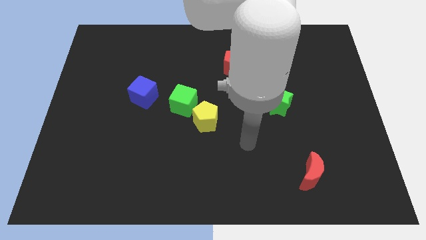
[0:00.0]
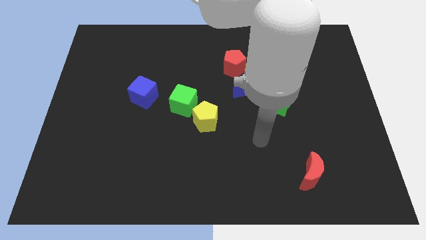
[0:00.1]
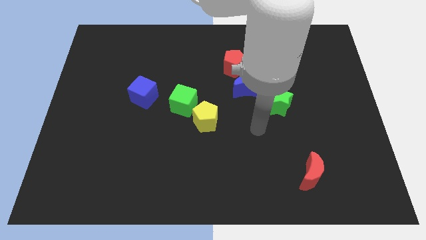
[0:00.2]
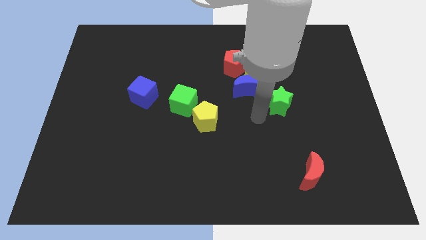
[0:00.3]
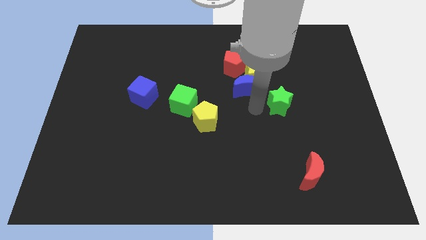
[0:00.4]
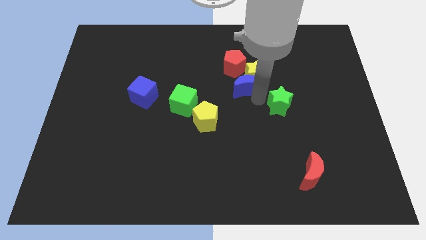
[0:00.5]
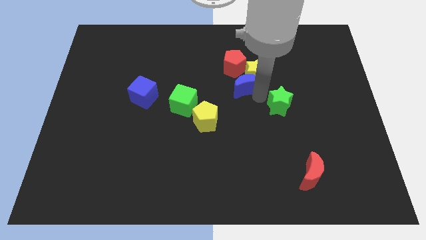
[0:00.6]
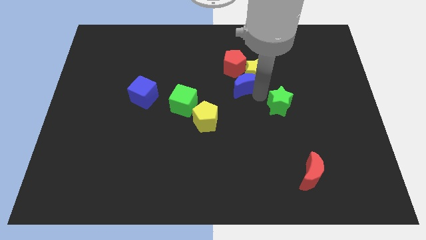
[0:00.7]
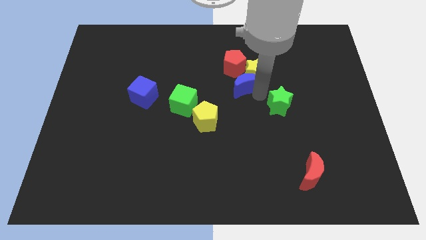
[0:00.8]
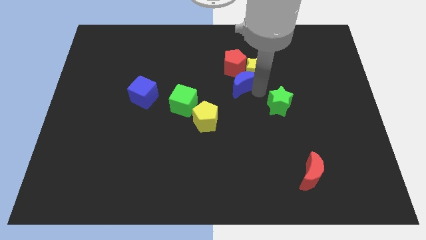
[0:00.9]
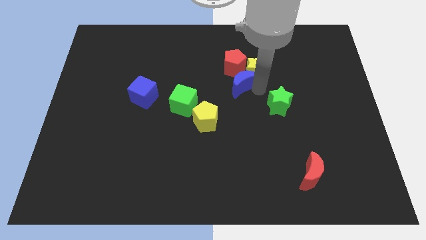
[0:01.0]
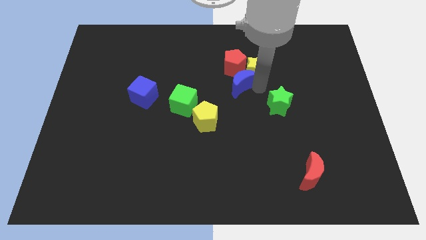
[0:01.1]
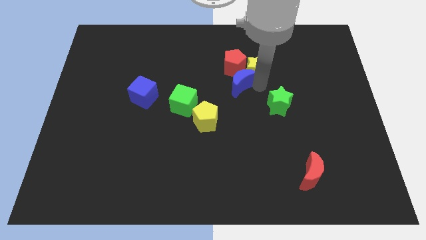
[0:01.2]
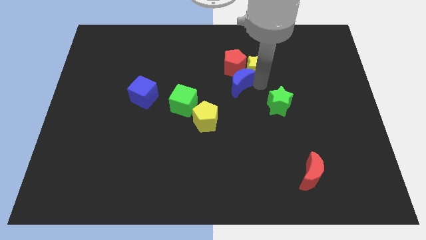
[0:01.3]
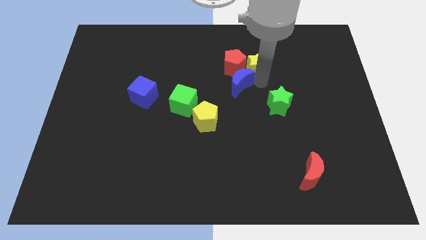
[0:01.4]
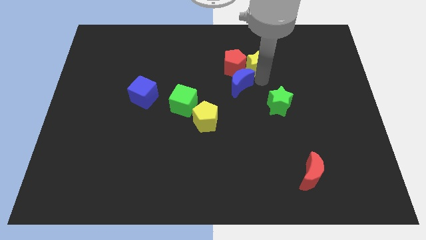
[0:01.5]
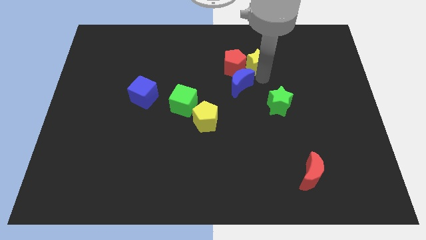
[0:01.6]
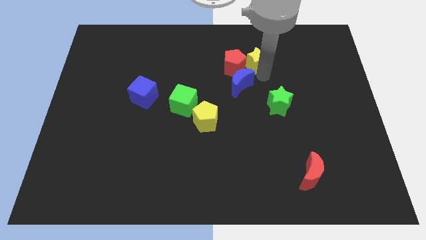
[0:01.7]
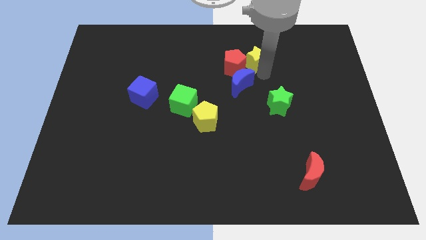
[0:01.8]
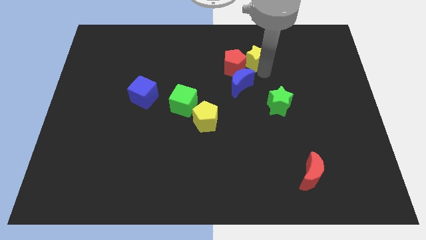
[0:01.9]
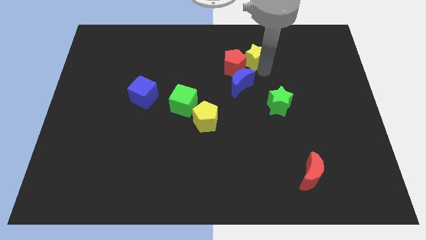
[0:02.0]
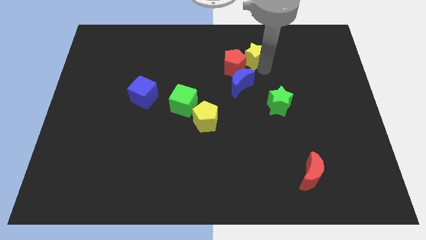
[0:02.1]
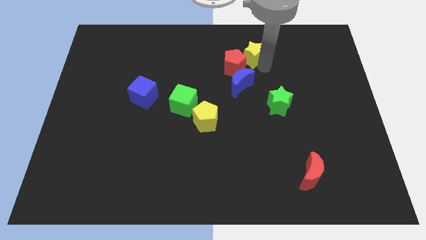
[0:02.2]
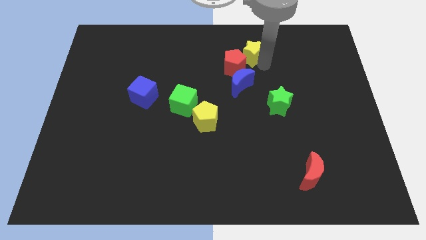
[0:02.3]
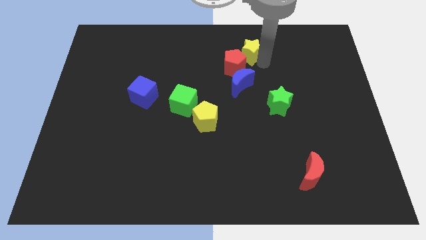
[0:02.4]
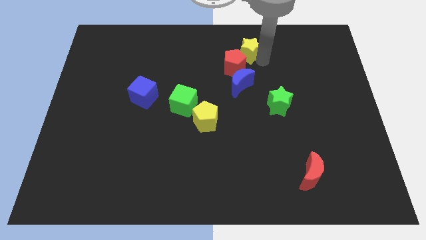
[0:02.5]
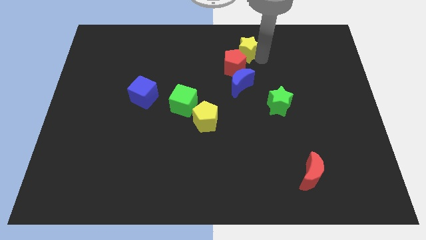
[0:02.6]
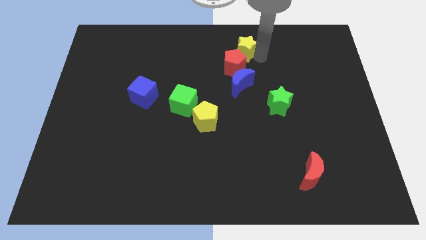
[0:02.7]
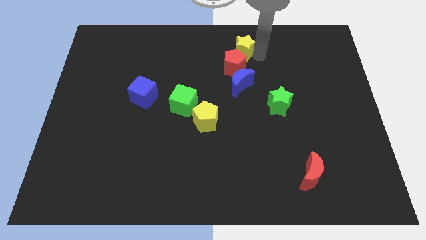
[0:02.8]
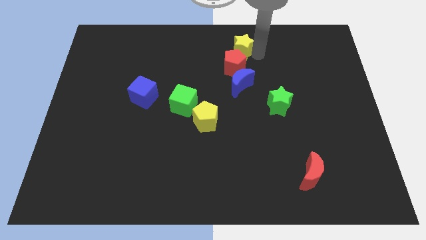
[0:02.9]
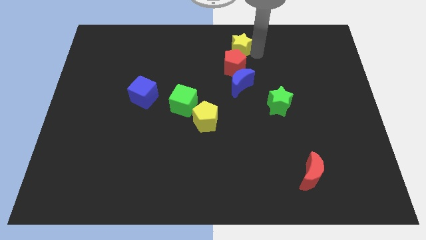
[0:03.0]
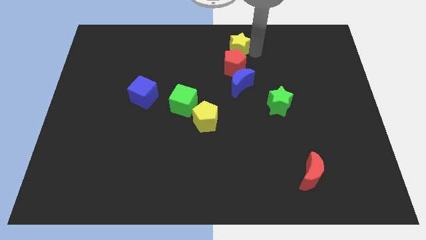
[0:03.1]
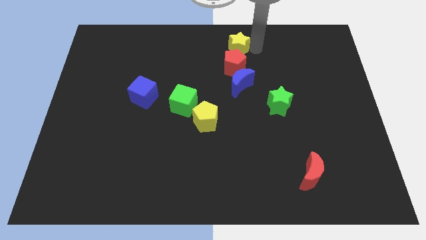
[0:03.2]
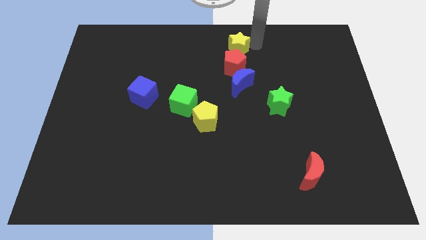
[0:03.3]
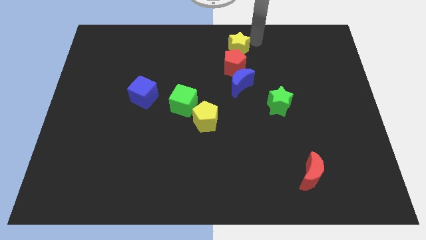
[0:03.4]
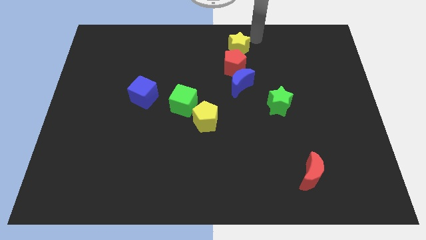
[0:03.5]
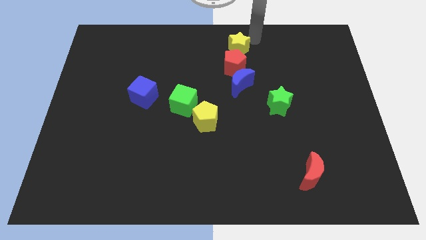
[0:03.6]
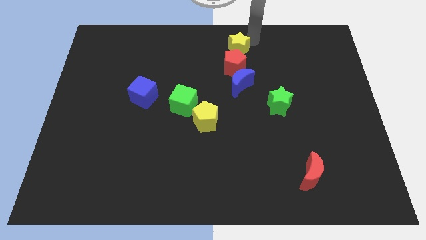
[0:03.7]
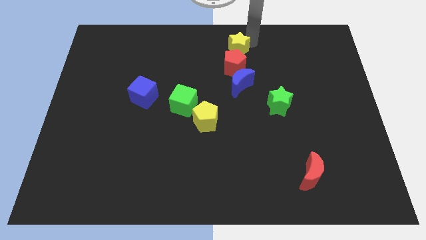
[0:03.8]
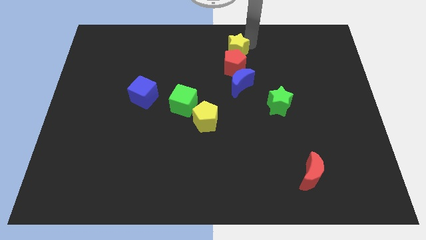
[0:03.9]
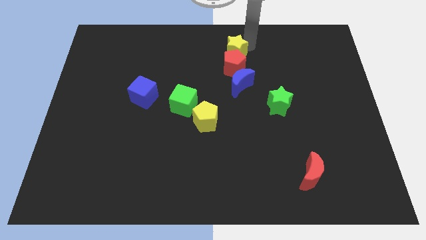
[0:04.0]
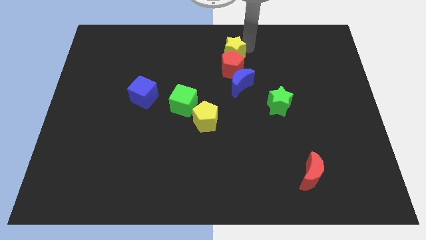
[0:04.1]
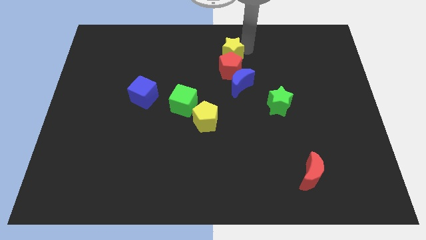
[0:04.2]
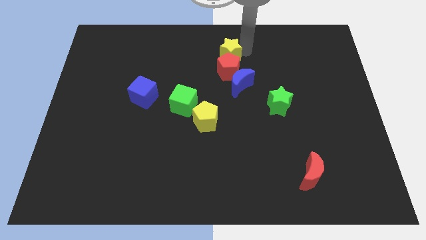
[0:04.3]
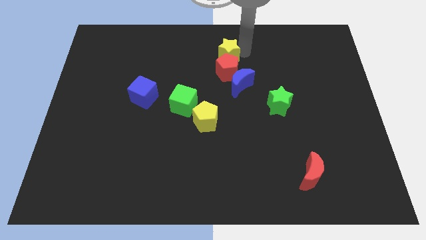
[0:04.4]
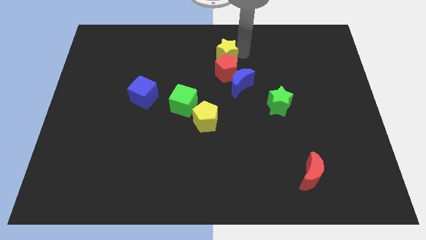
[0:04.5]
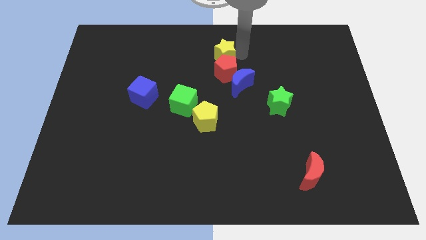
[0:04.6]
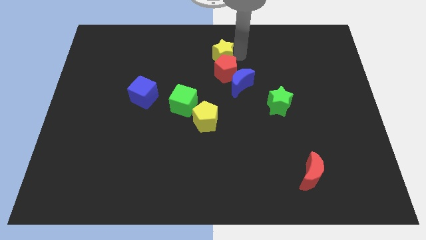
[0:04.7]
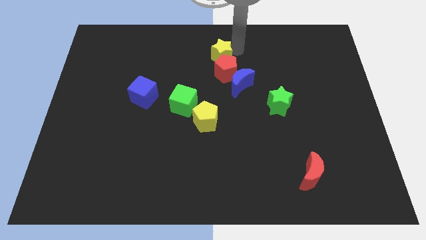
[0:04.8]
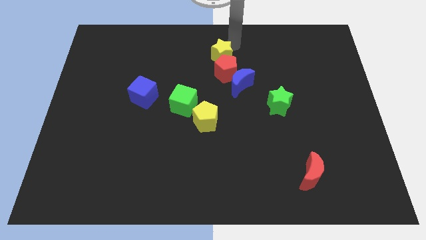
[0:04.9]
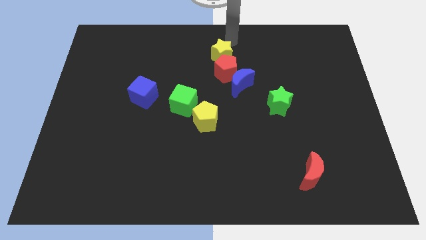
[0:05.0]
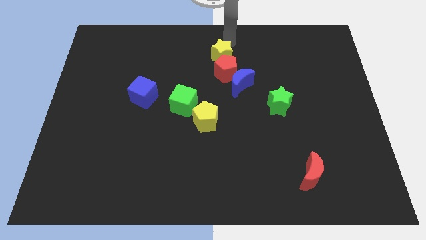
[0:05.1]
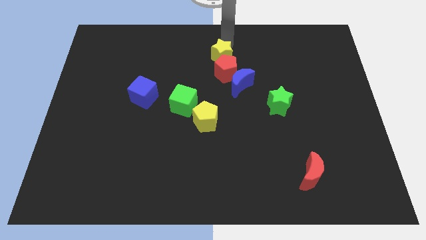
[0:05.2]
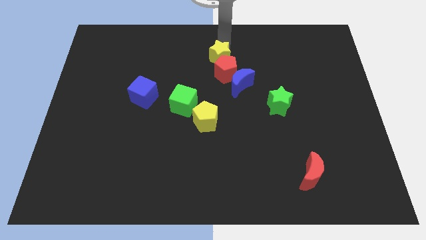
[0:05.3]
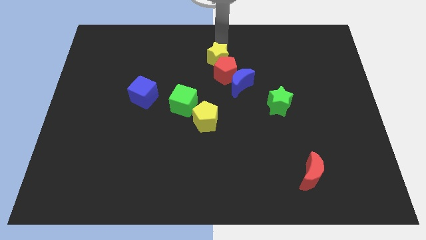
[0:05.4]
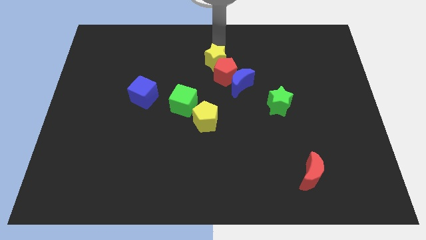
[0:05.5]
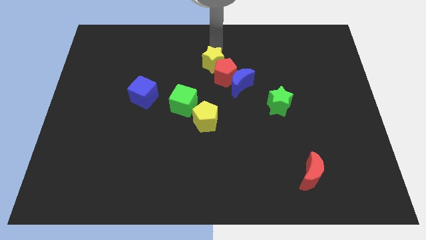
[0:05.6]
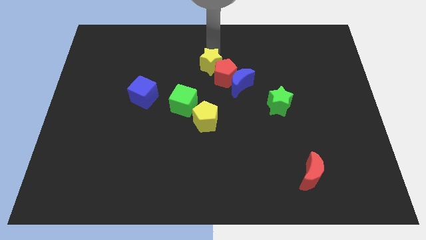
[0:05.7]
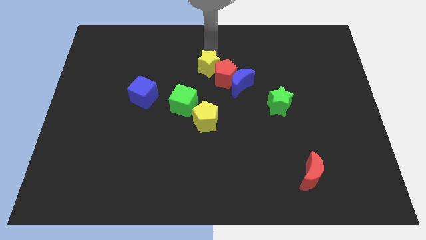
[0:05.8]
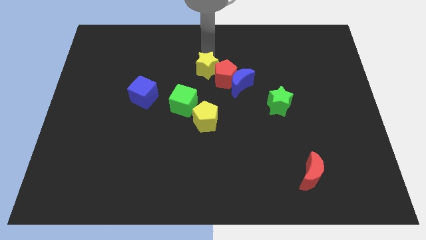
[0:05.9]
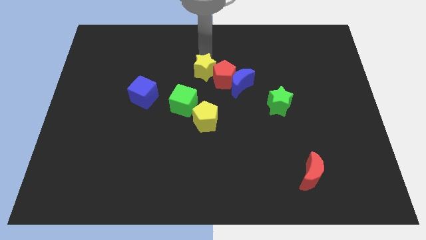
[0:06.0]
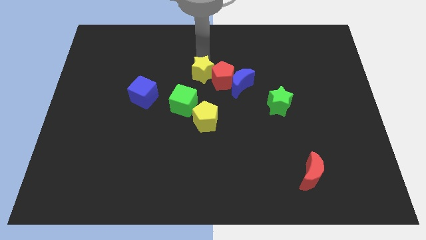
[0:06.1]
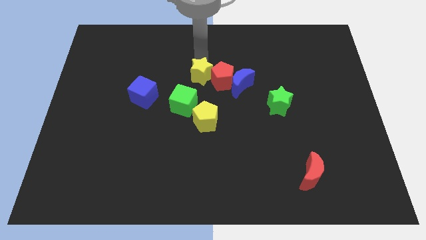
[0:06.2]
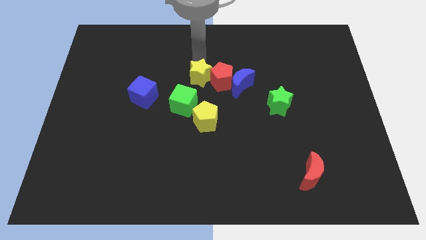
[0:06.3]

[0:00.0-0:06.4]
move the yellow star to the bottom left of the red pentagon

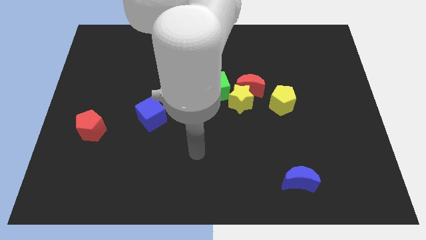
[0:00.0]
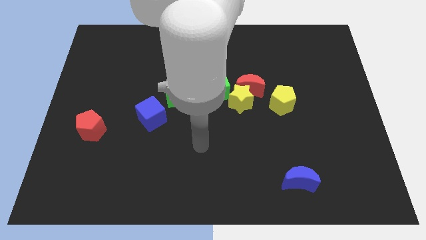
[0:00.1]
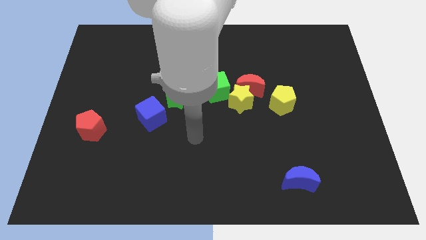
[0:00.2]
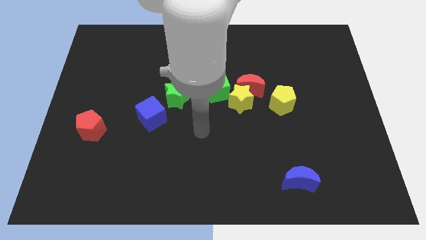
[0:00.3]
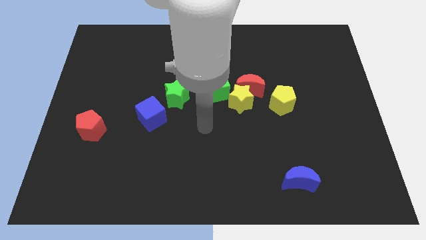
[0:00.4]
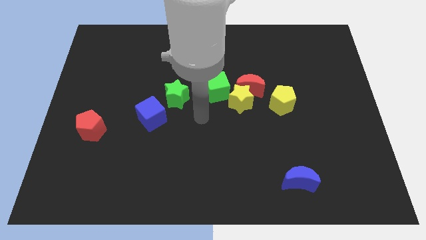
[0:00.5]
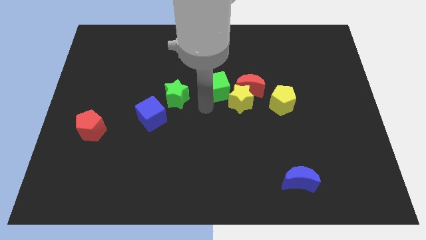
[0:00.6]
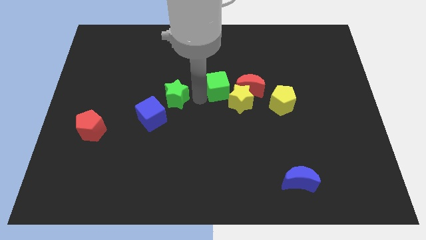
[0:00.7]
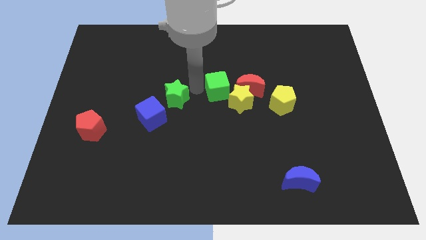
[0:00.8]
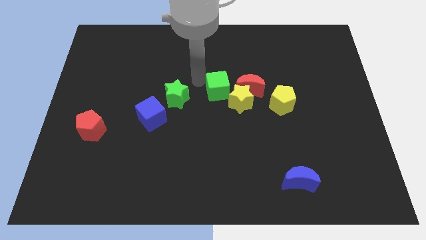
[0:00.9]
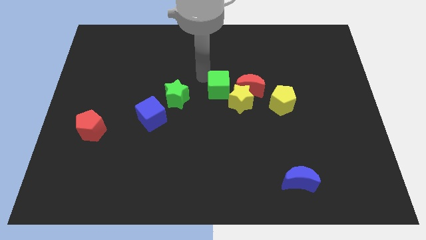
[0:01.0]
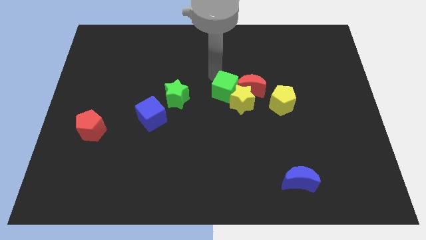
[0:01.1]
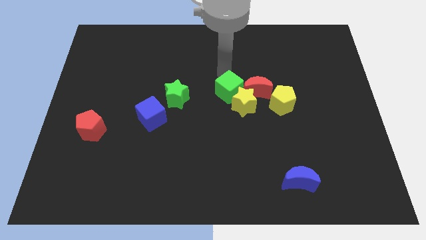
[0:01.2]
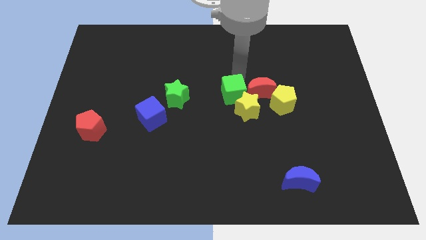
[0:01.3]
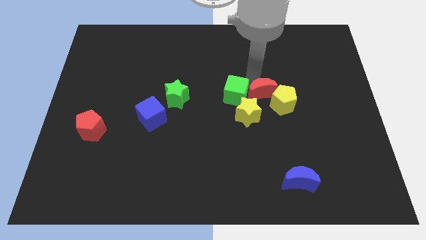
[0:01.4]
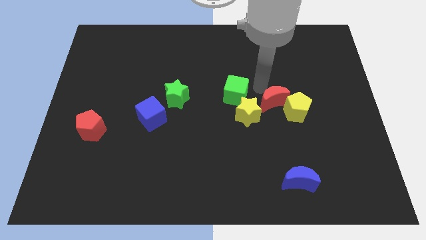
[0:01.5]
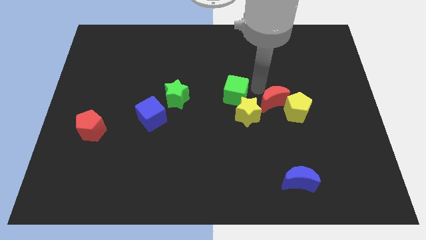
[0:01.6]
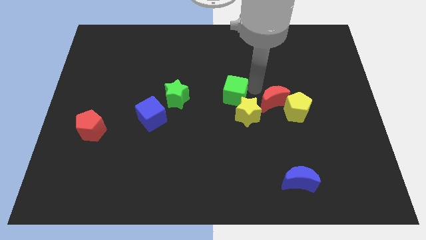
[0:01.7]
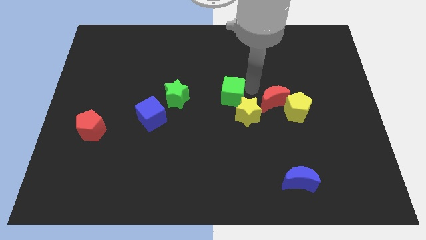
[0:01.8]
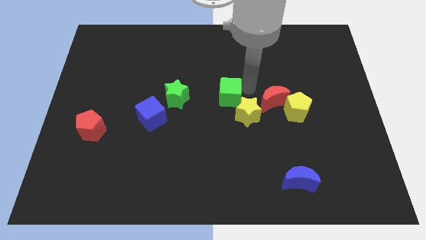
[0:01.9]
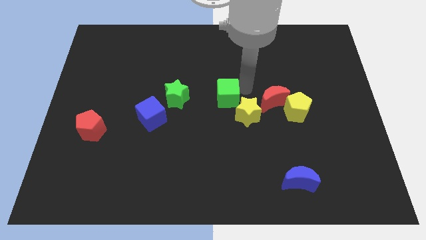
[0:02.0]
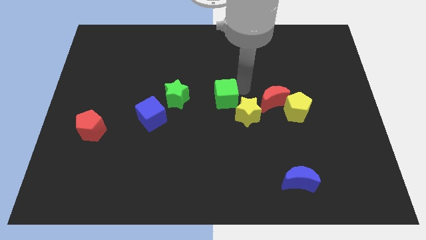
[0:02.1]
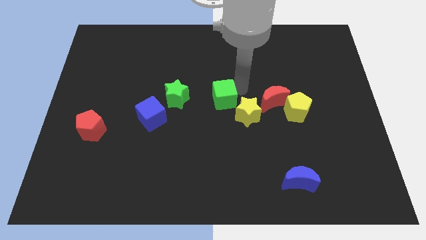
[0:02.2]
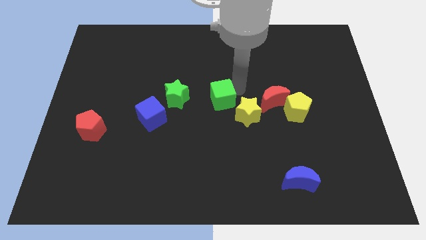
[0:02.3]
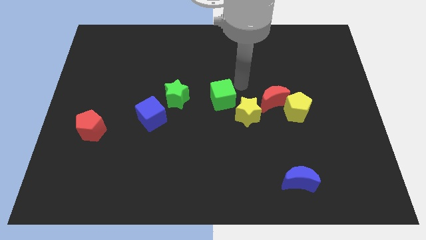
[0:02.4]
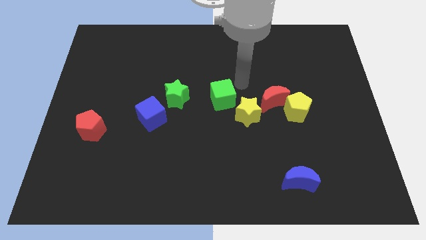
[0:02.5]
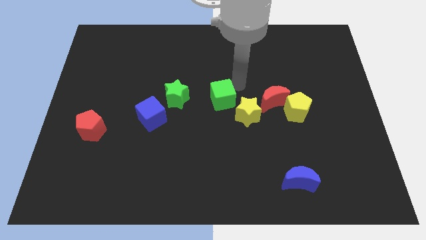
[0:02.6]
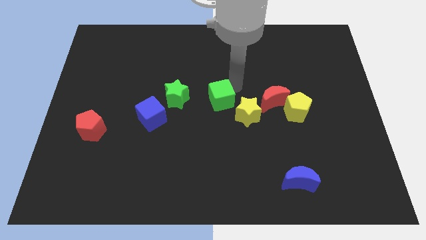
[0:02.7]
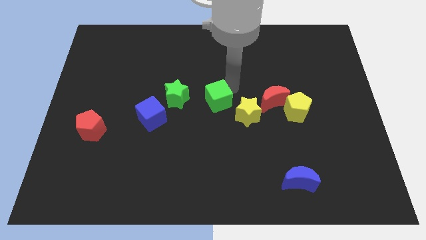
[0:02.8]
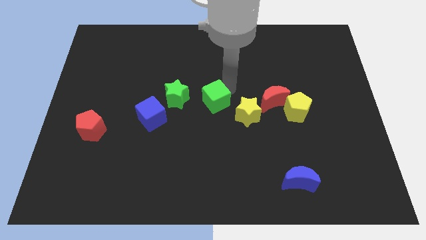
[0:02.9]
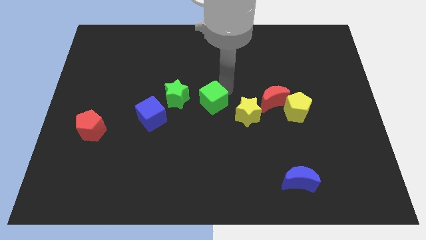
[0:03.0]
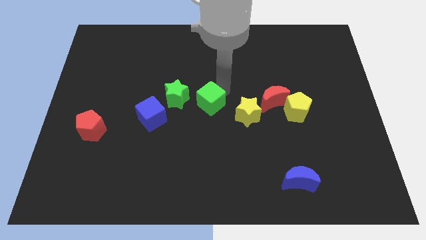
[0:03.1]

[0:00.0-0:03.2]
slide the green cube just right of the blue cube
